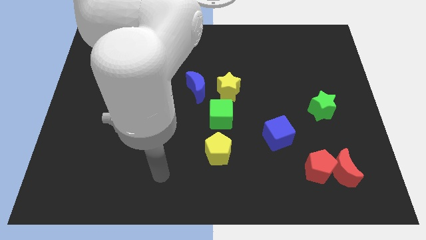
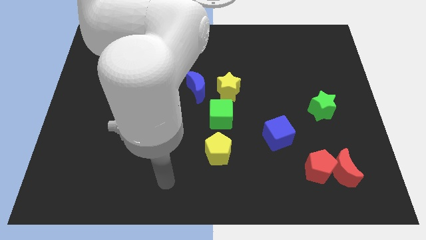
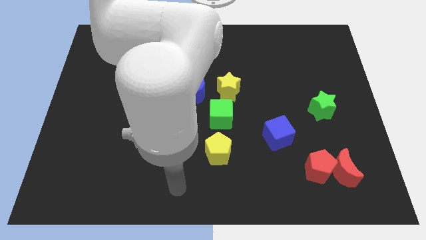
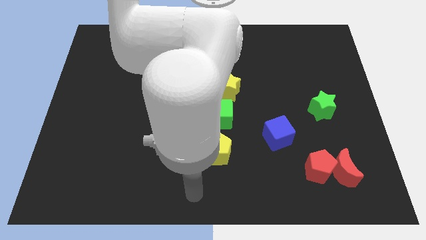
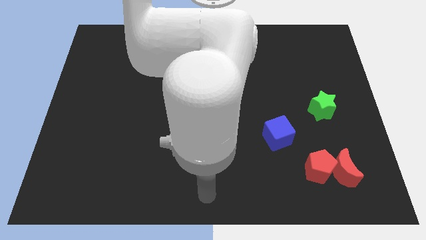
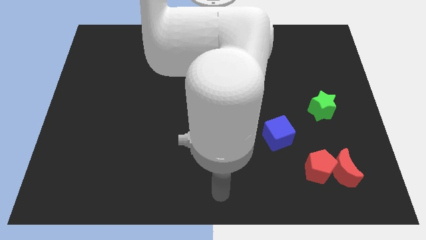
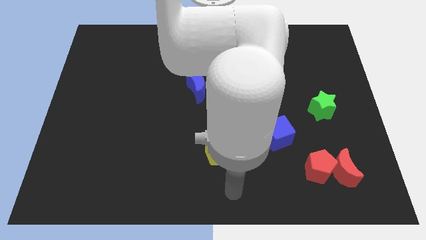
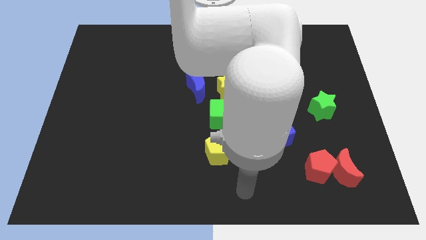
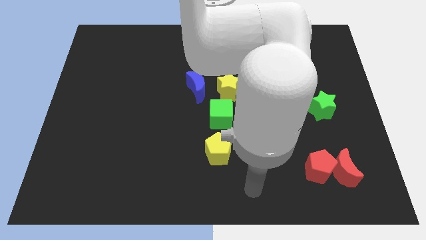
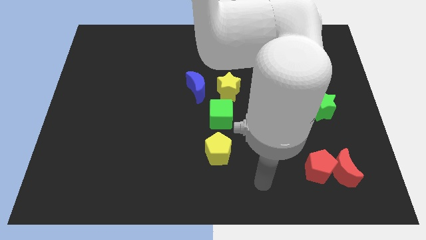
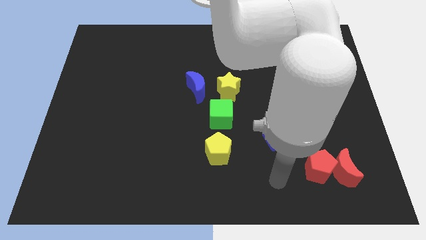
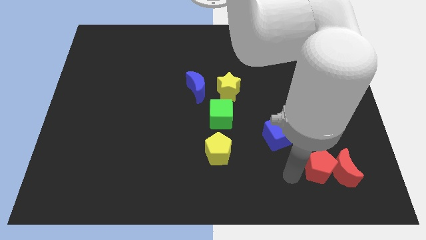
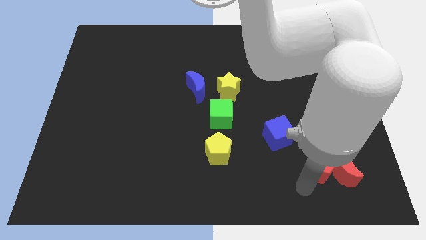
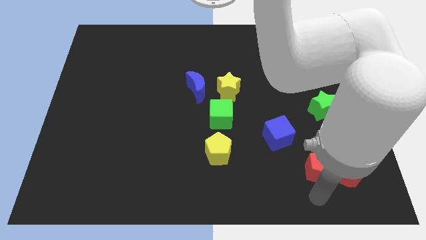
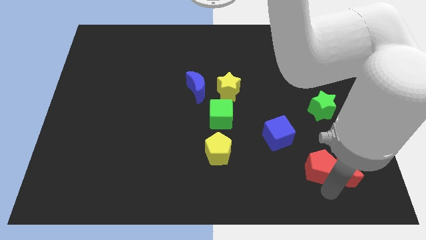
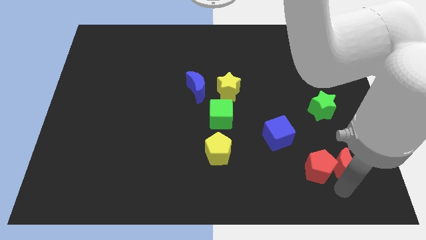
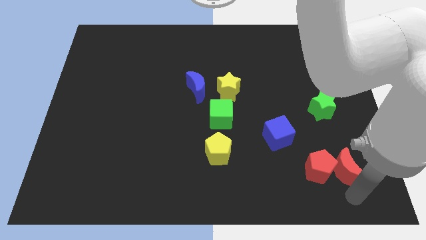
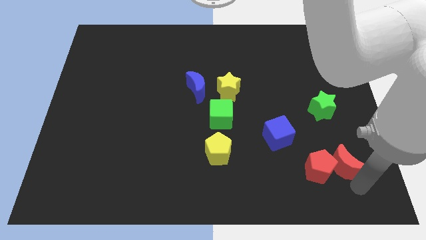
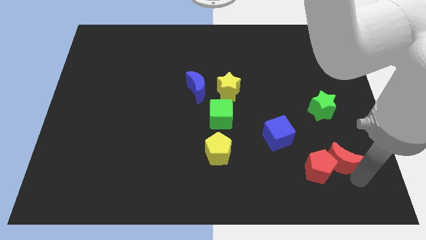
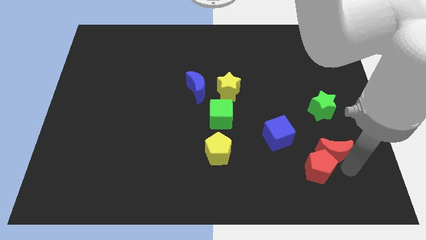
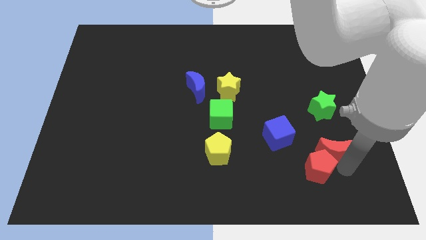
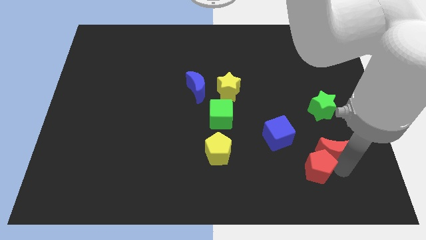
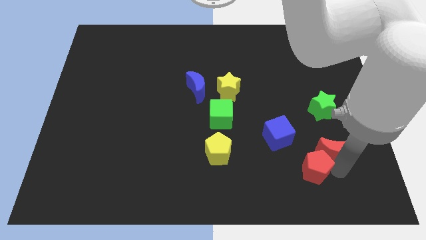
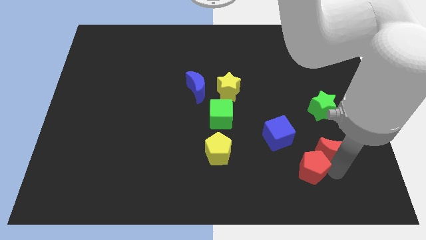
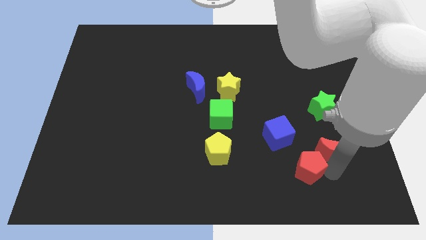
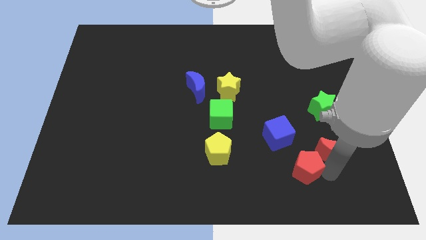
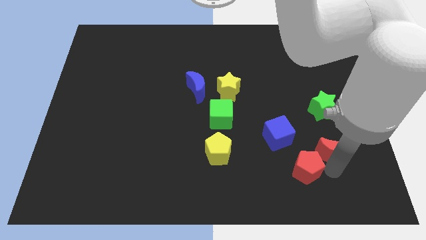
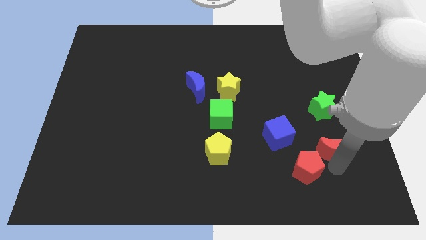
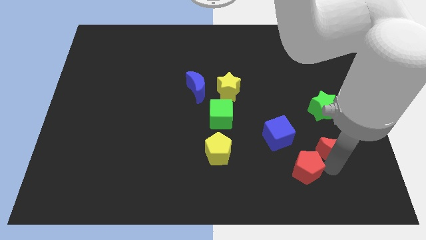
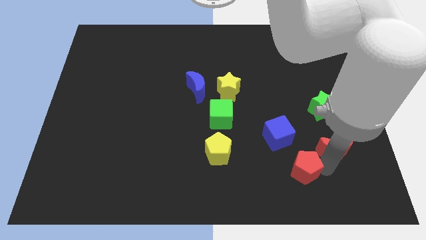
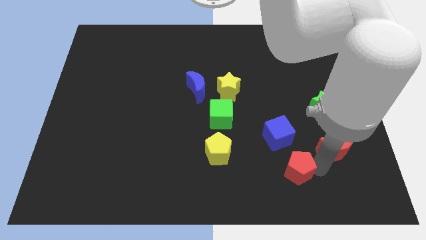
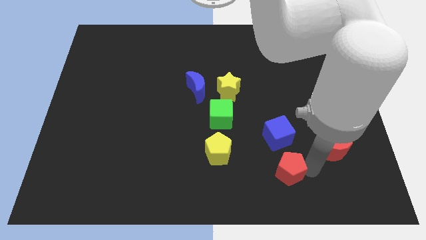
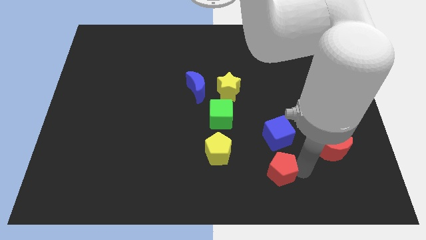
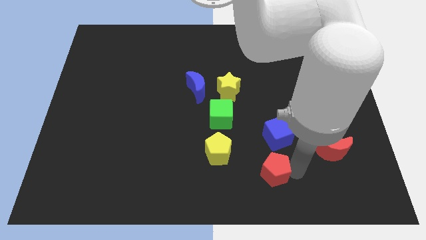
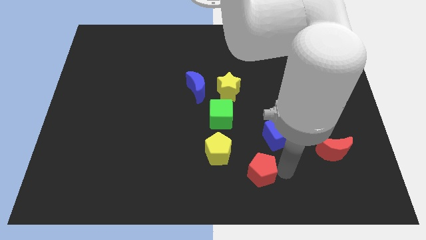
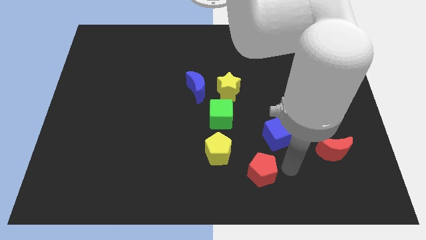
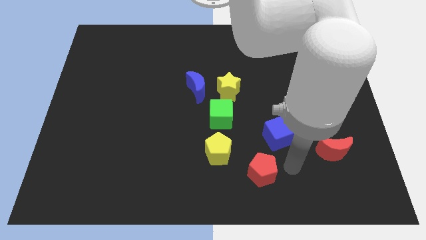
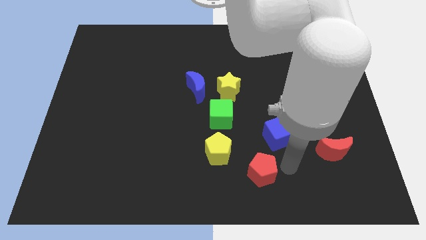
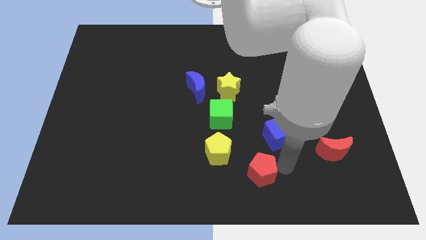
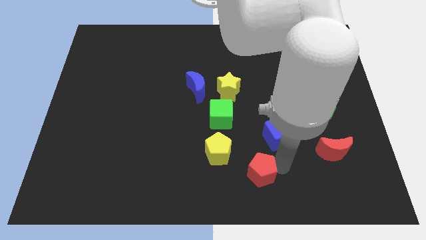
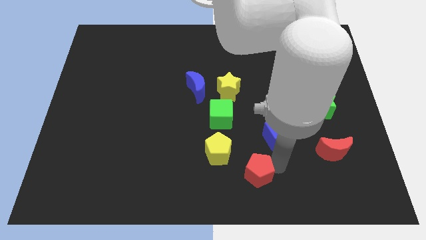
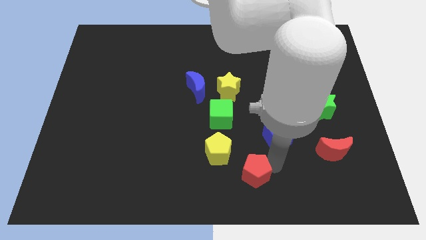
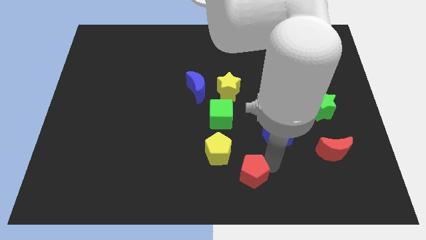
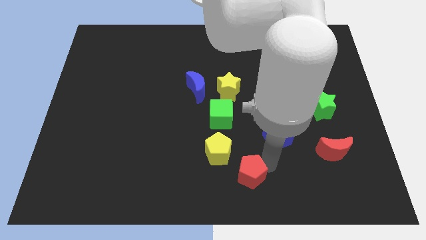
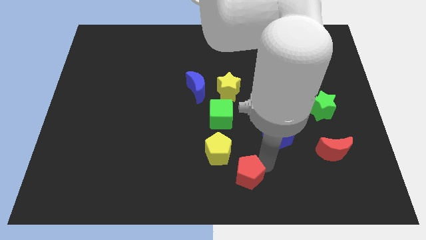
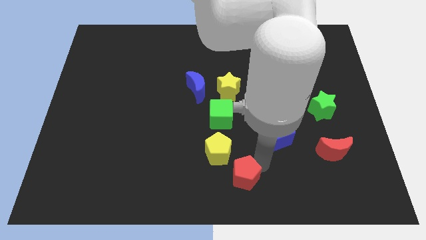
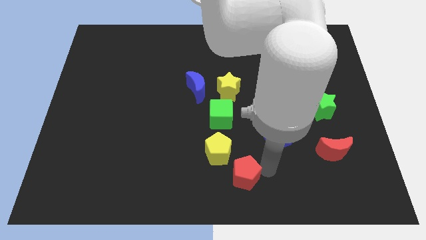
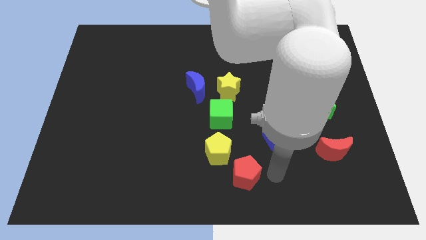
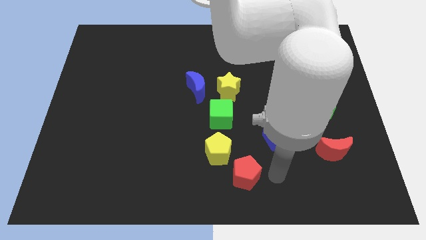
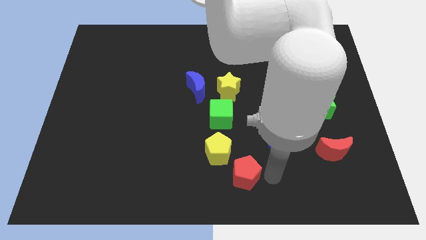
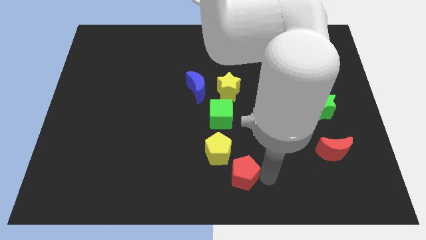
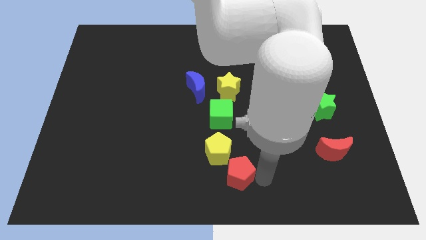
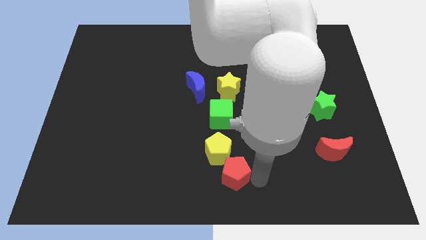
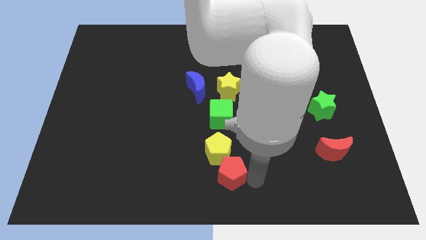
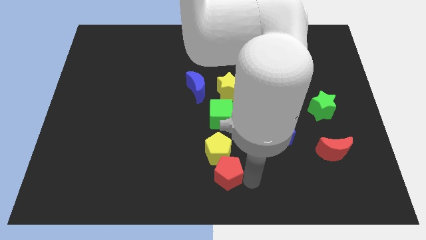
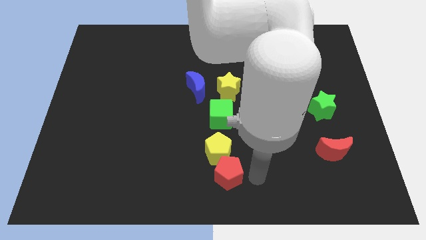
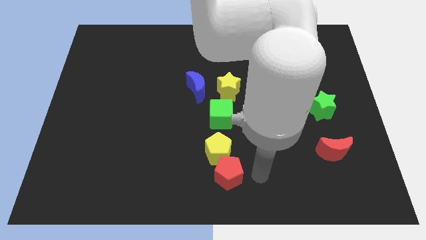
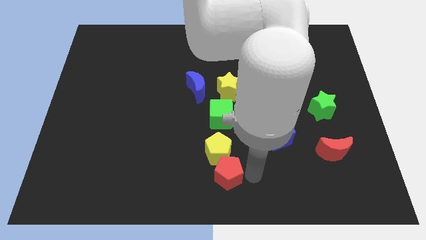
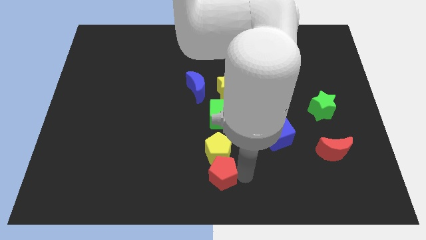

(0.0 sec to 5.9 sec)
slide the red pentagon left

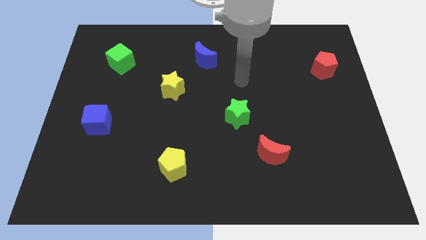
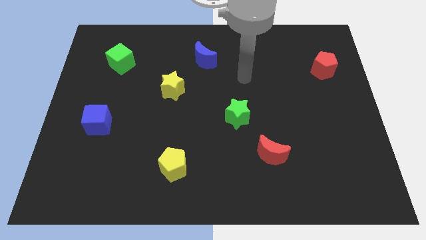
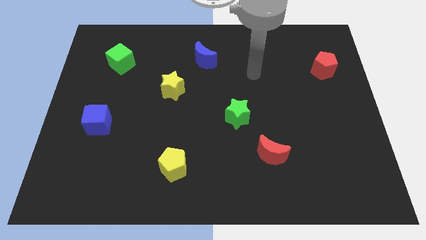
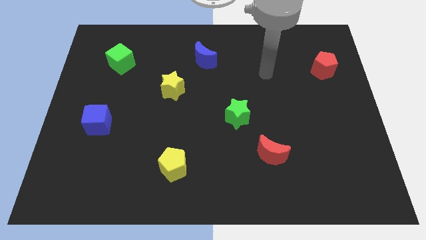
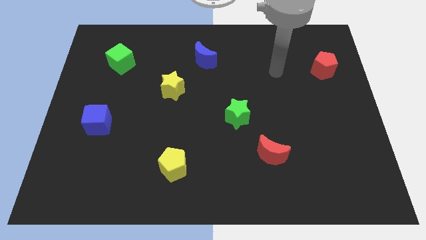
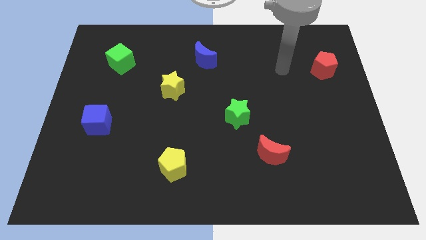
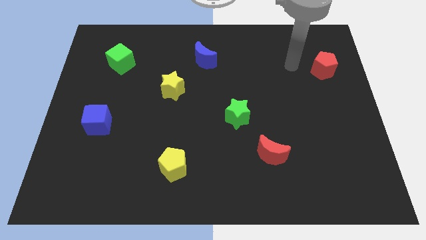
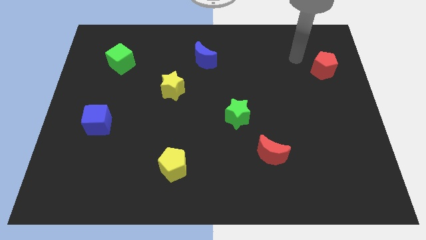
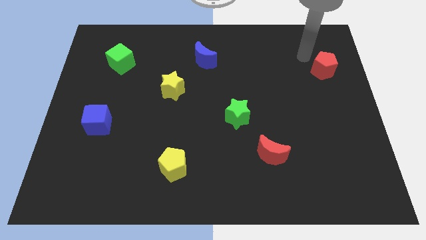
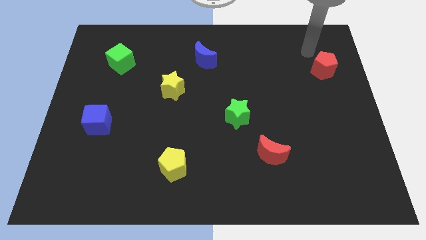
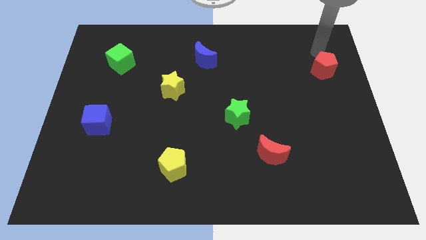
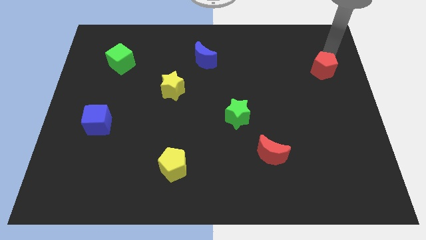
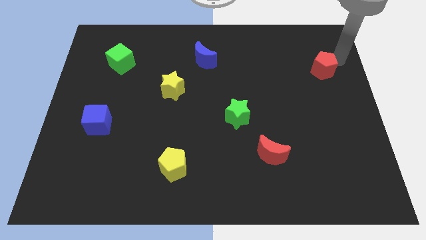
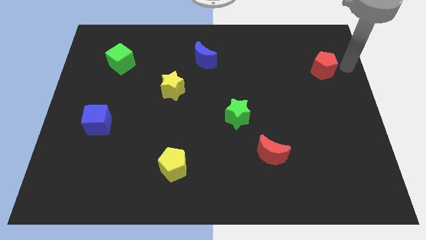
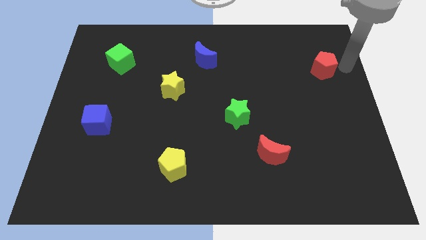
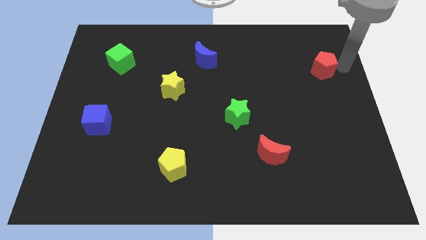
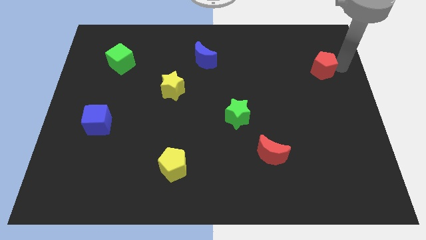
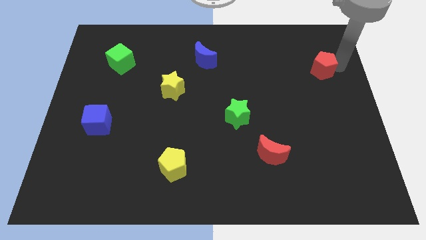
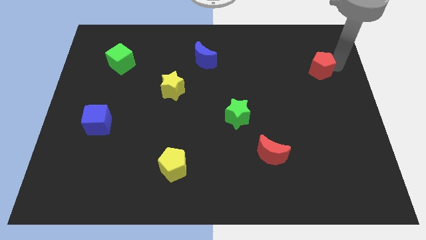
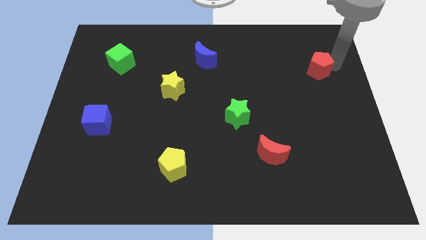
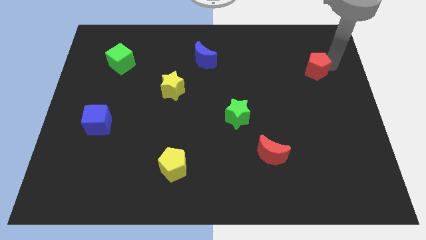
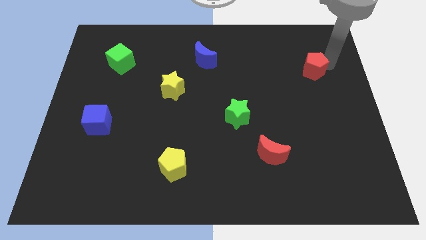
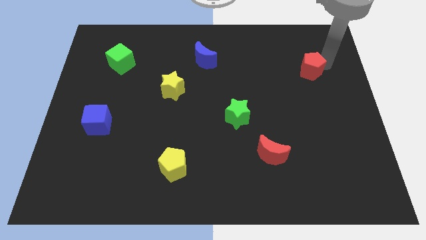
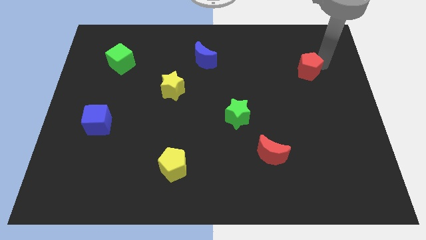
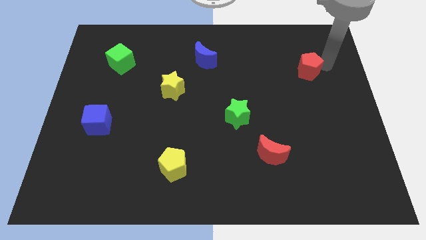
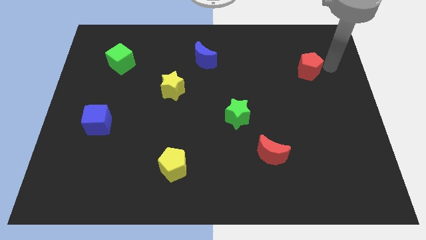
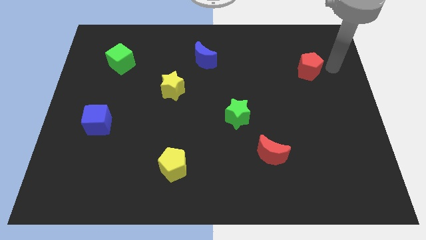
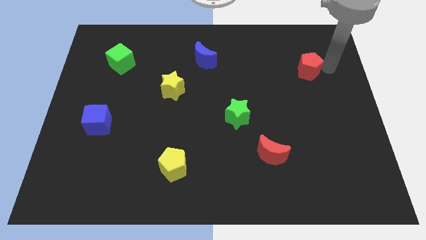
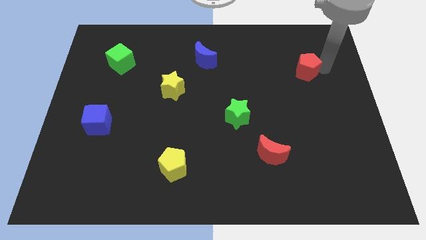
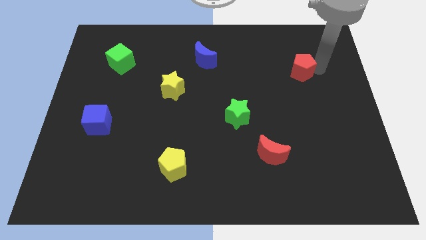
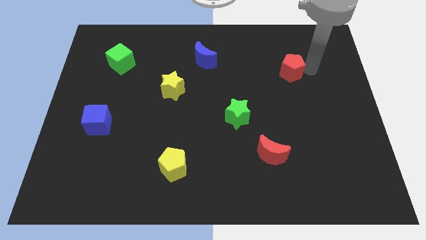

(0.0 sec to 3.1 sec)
push the red pentagon a bit left
